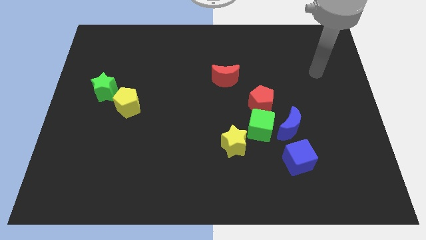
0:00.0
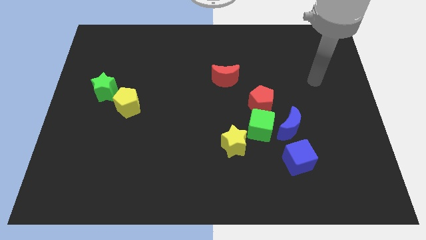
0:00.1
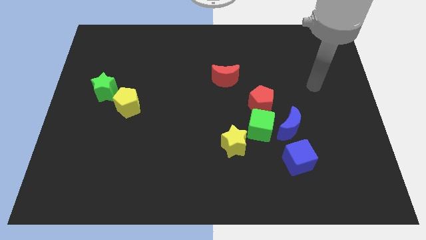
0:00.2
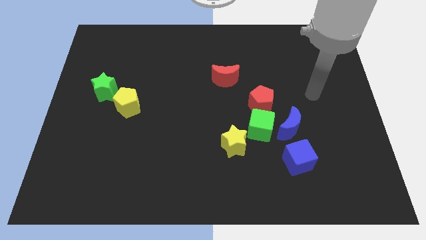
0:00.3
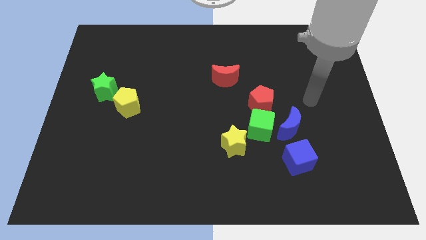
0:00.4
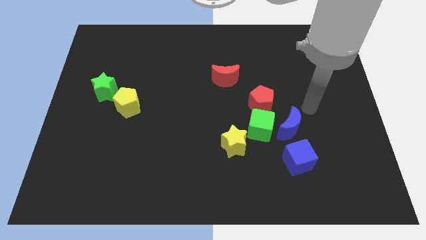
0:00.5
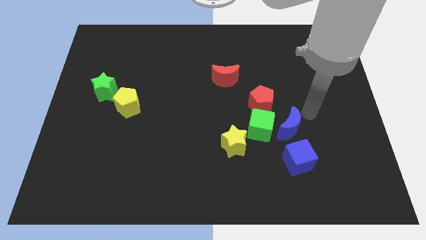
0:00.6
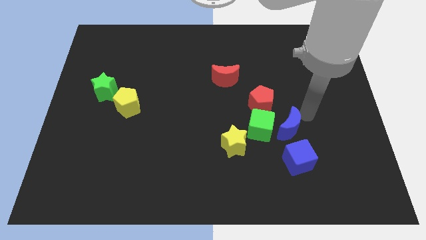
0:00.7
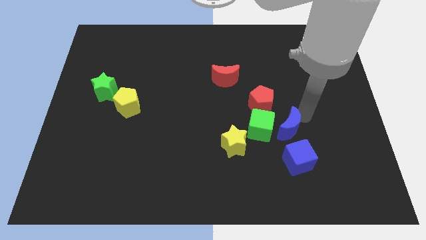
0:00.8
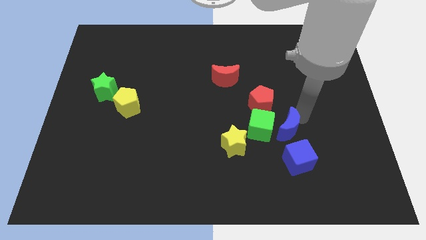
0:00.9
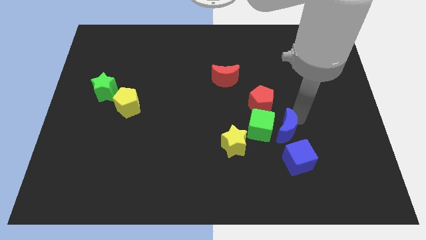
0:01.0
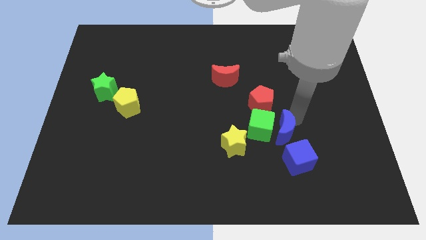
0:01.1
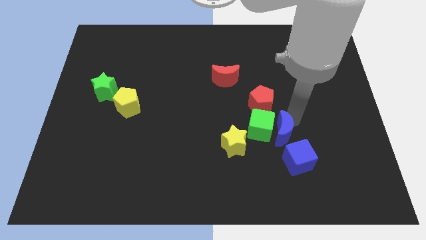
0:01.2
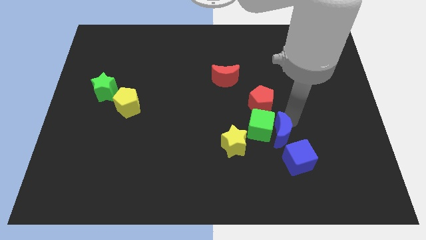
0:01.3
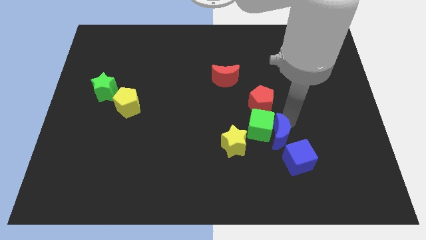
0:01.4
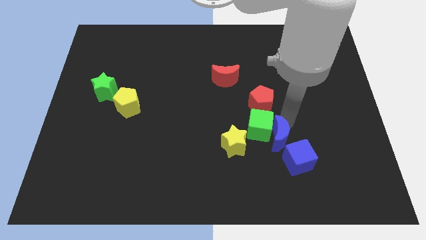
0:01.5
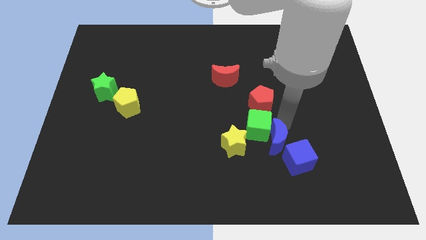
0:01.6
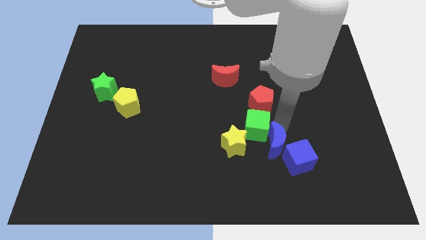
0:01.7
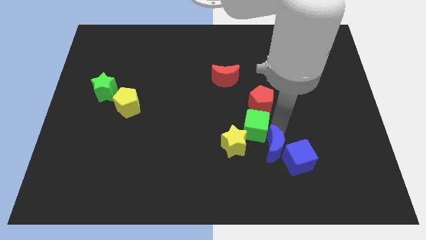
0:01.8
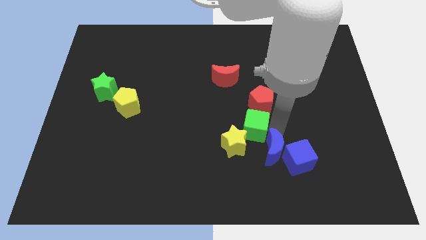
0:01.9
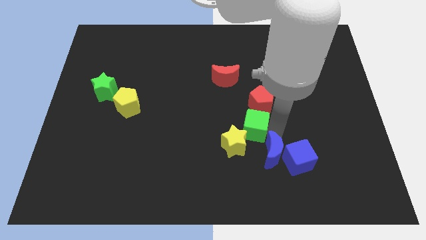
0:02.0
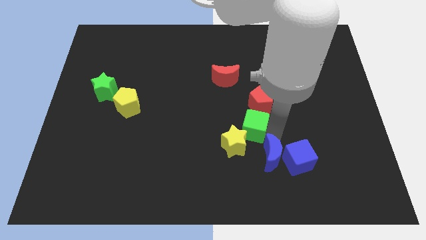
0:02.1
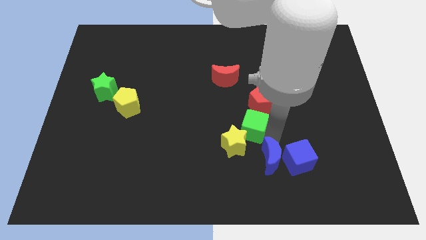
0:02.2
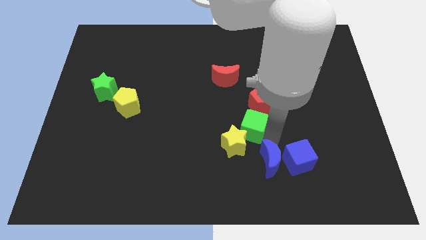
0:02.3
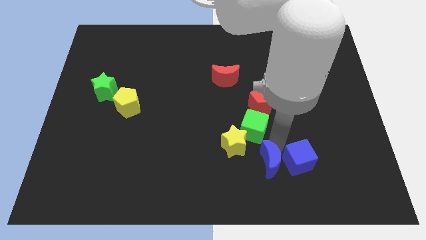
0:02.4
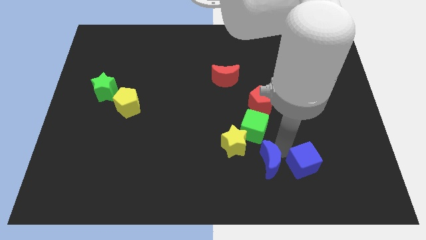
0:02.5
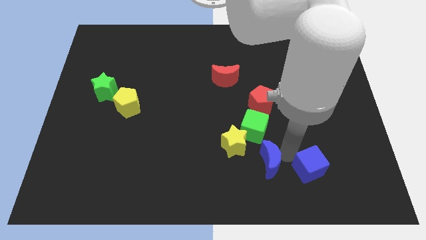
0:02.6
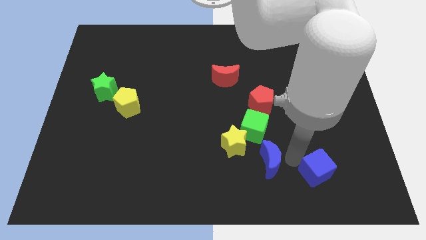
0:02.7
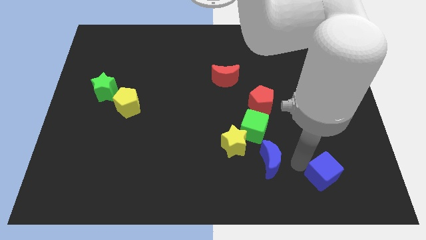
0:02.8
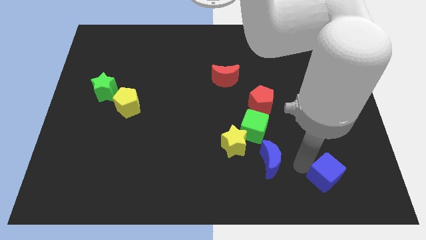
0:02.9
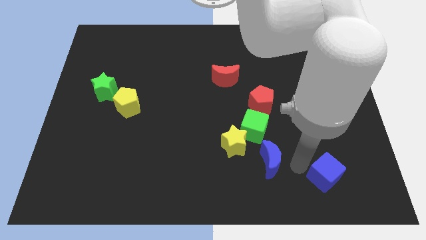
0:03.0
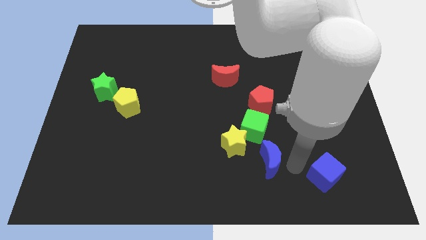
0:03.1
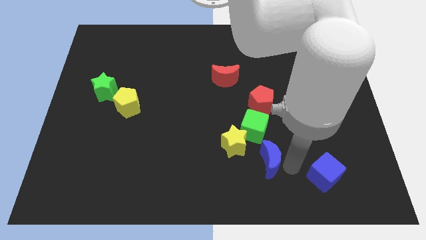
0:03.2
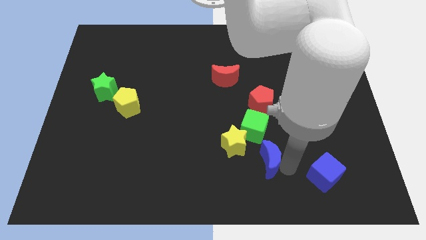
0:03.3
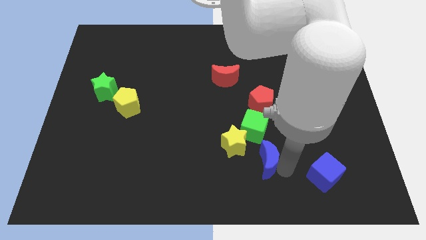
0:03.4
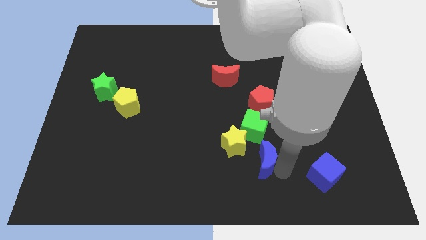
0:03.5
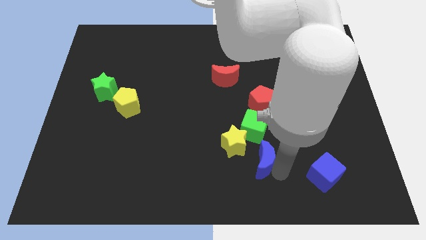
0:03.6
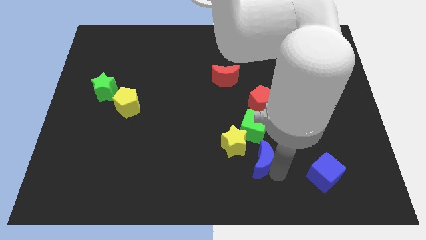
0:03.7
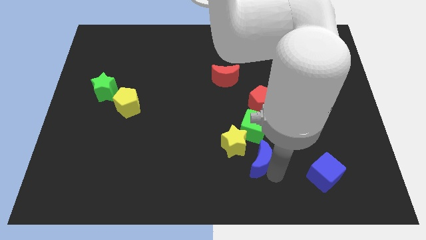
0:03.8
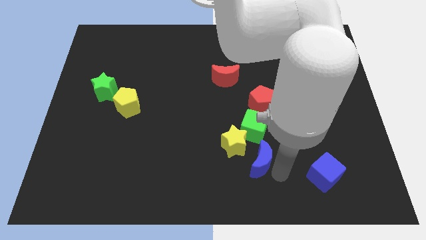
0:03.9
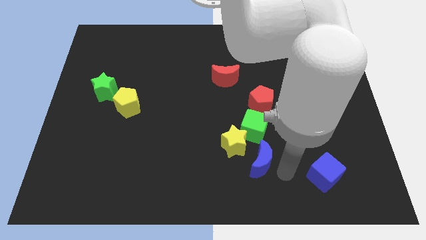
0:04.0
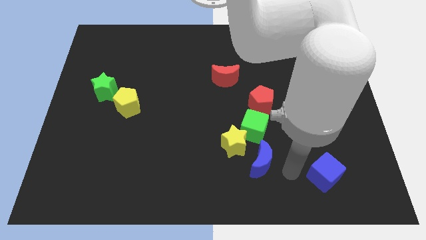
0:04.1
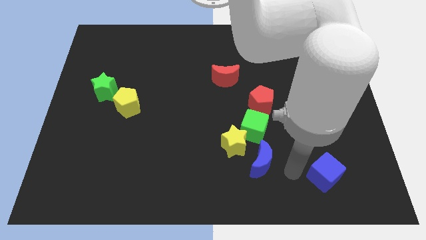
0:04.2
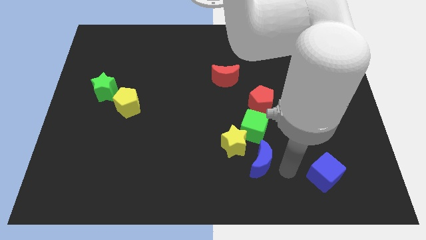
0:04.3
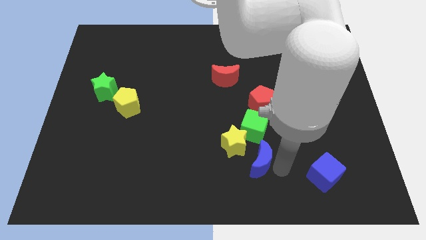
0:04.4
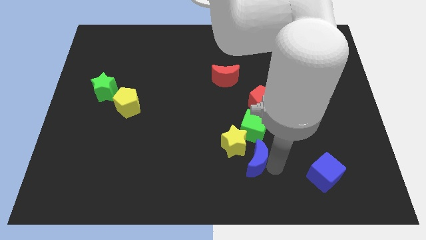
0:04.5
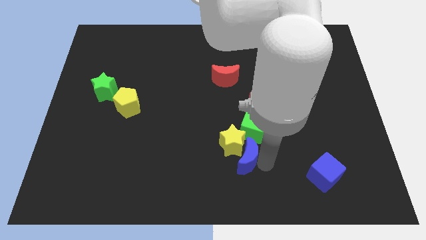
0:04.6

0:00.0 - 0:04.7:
slide the blue moon left a little

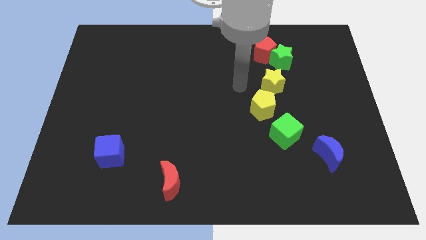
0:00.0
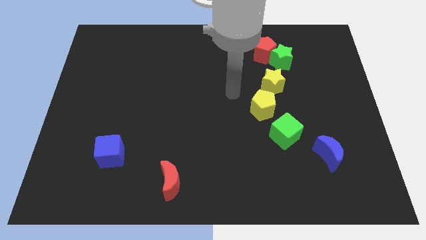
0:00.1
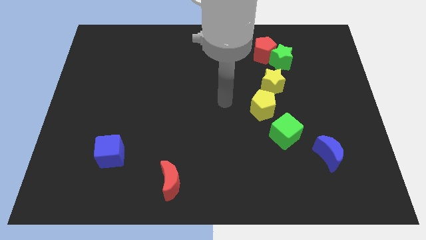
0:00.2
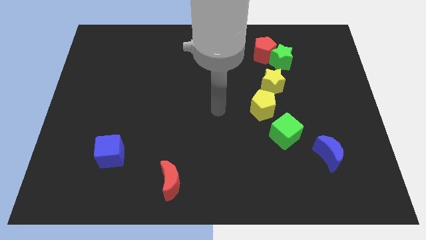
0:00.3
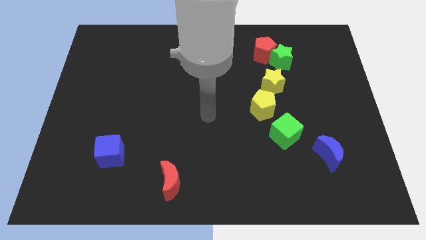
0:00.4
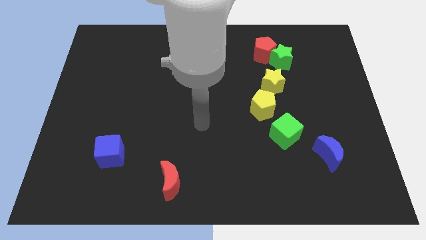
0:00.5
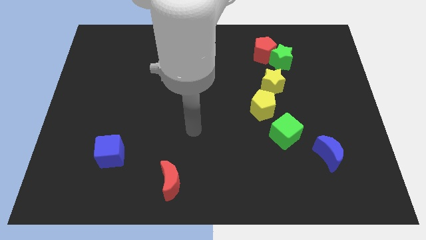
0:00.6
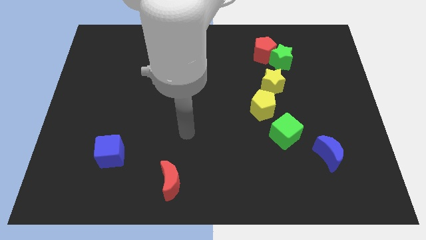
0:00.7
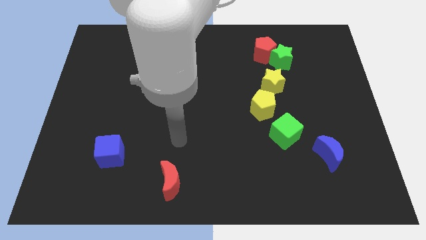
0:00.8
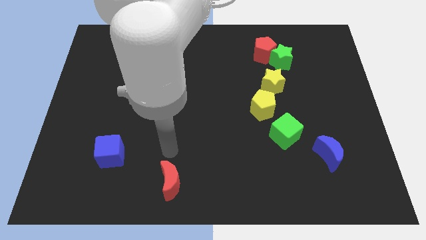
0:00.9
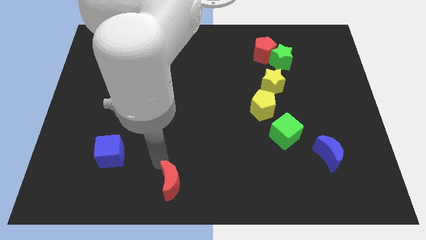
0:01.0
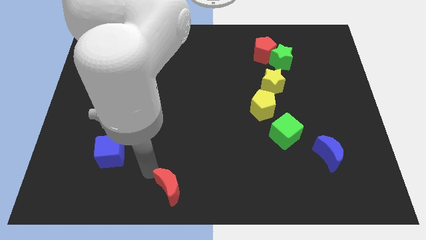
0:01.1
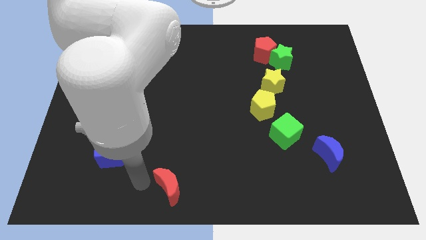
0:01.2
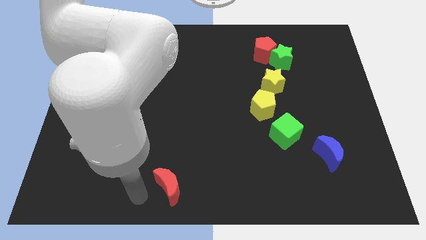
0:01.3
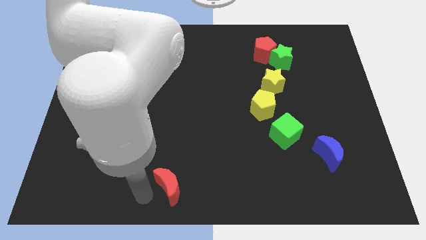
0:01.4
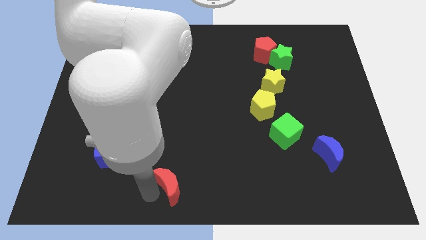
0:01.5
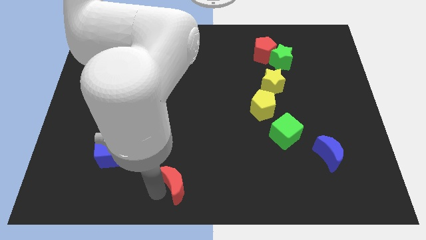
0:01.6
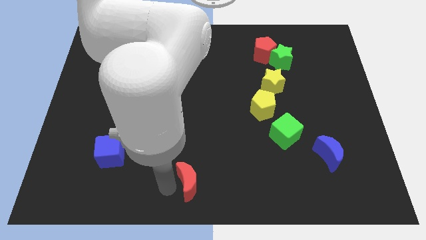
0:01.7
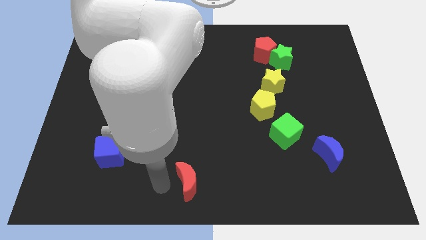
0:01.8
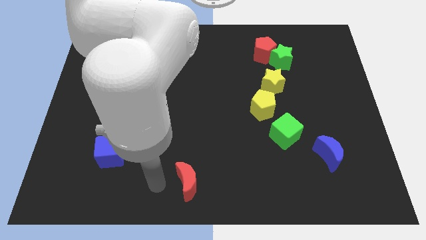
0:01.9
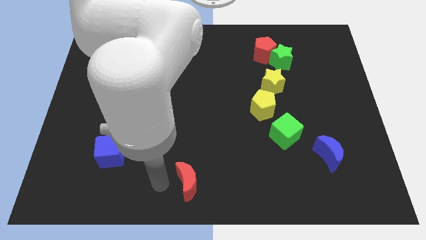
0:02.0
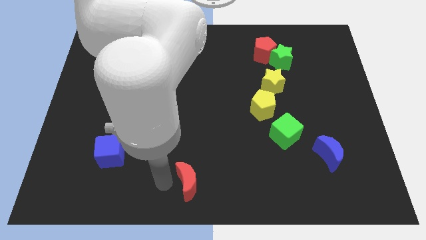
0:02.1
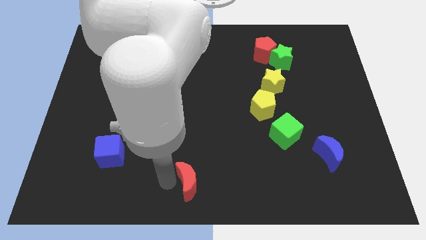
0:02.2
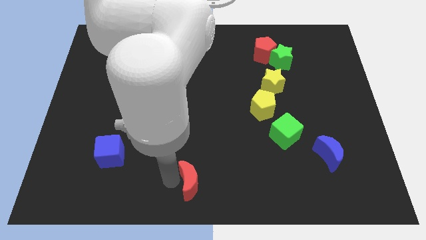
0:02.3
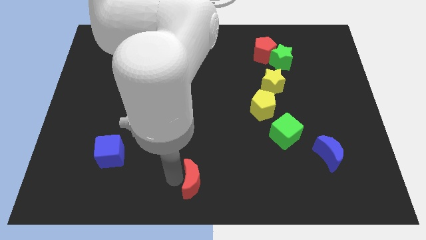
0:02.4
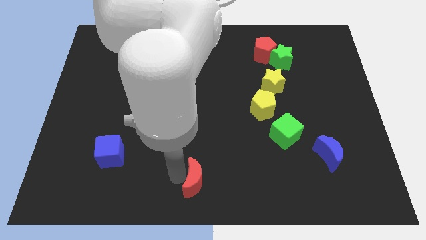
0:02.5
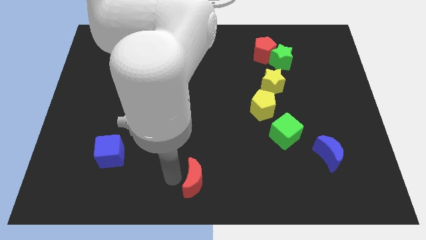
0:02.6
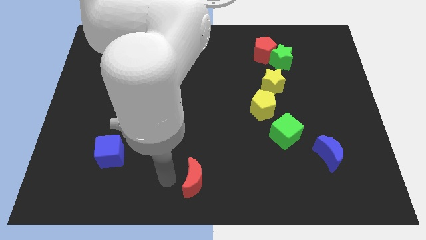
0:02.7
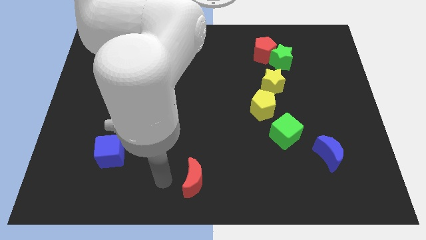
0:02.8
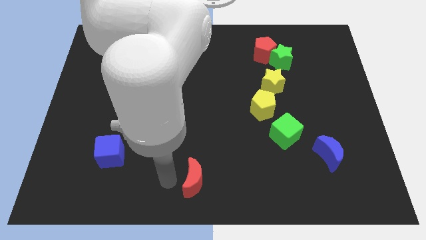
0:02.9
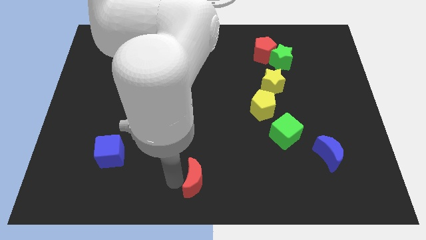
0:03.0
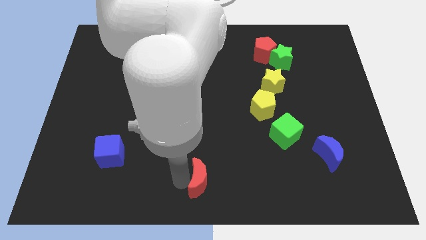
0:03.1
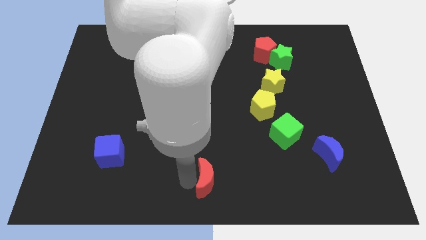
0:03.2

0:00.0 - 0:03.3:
slide the red moon a little bit to the right
